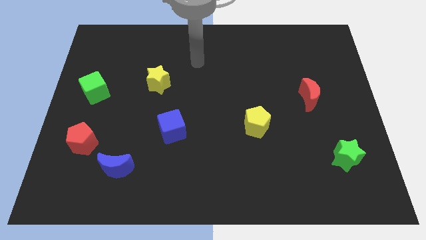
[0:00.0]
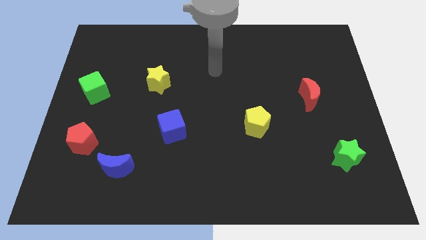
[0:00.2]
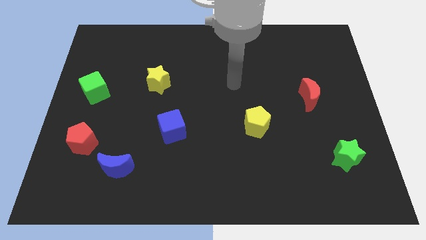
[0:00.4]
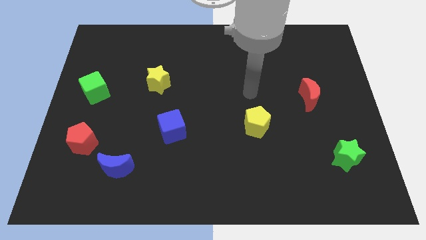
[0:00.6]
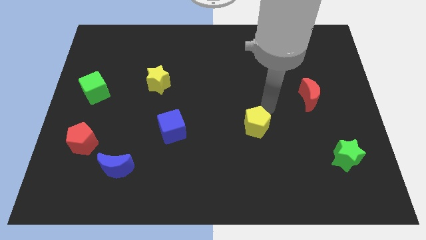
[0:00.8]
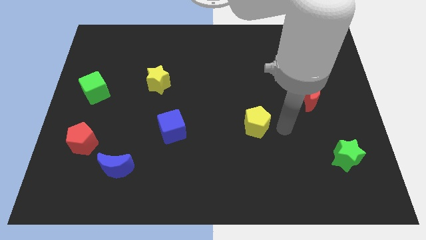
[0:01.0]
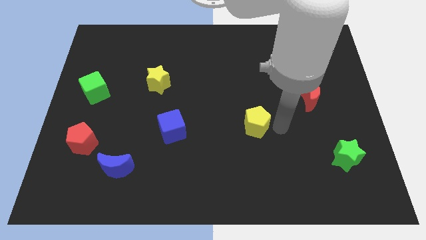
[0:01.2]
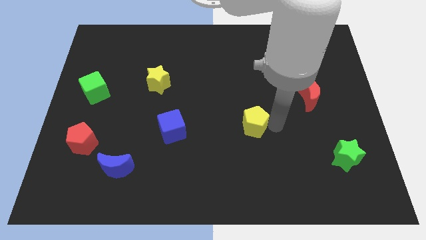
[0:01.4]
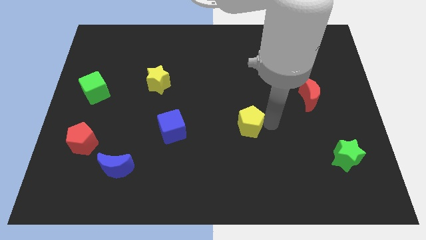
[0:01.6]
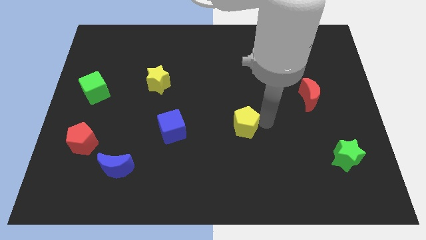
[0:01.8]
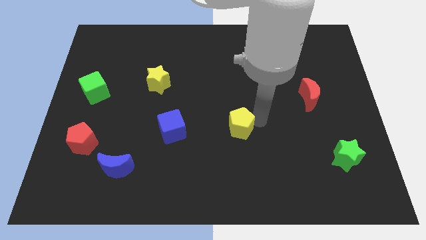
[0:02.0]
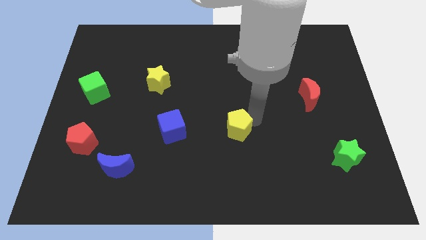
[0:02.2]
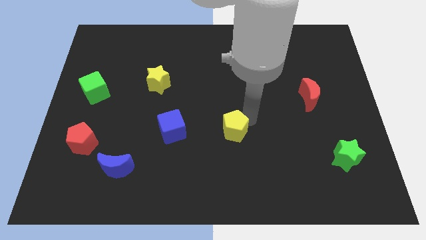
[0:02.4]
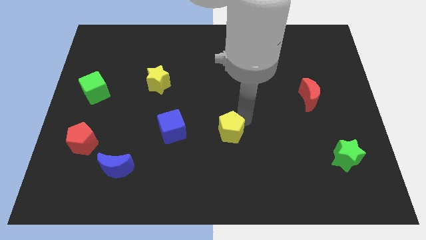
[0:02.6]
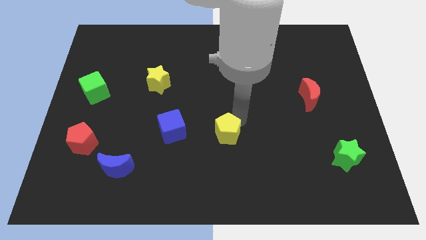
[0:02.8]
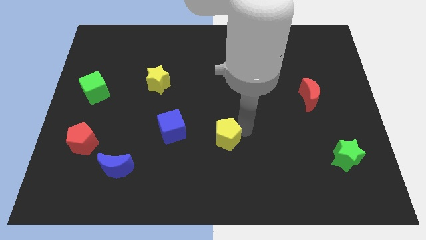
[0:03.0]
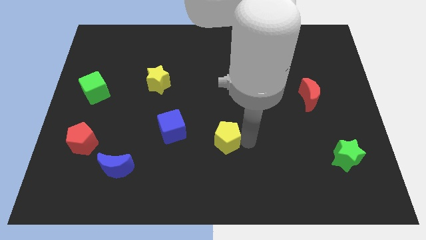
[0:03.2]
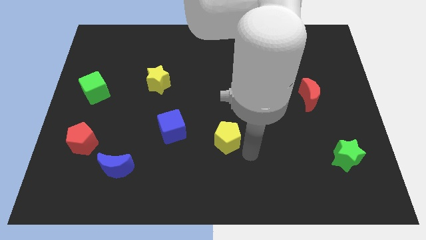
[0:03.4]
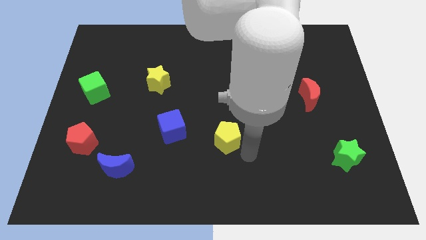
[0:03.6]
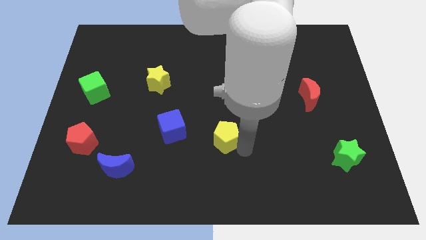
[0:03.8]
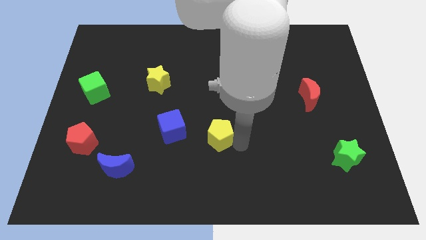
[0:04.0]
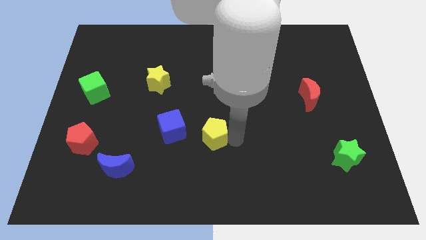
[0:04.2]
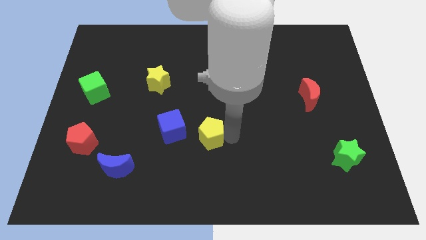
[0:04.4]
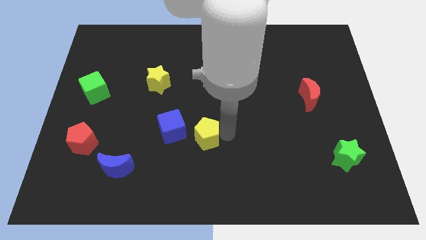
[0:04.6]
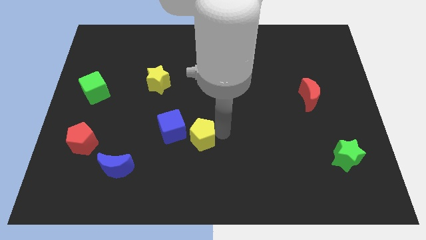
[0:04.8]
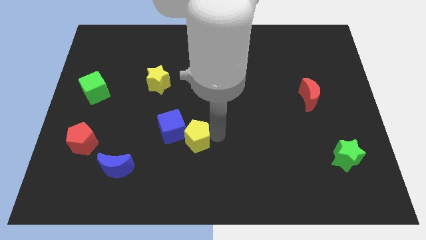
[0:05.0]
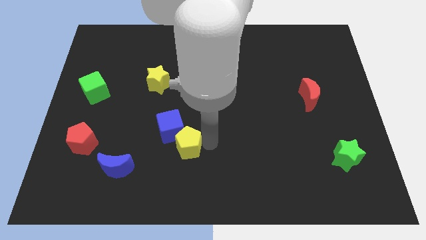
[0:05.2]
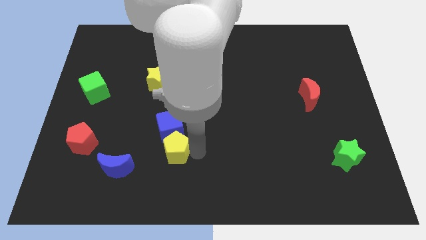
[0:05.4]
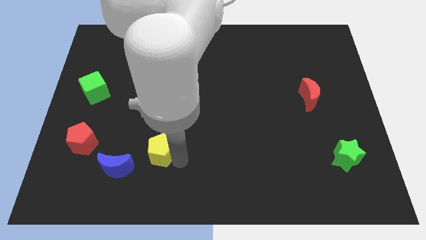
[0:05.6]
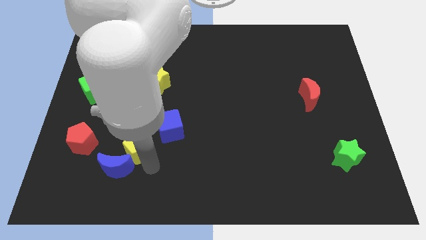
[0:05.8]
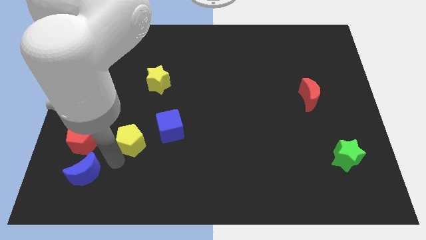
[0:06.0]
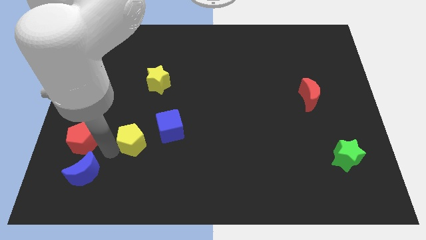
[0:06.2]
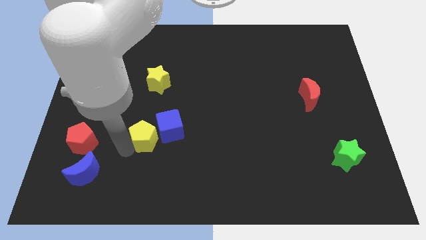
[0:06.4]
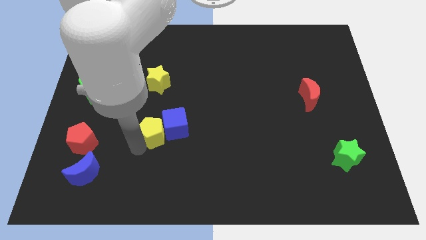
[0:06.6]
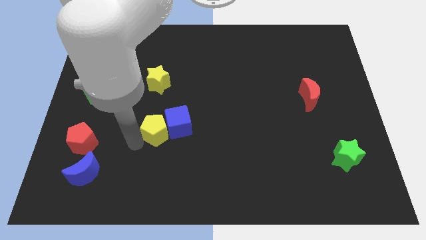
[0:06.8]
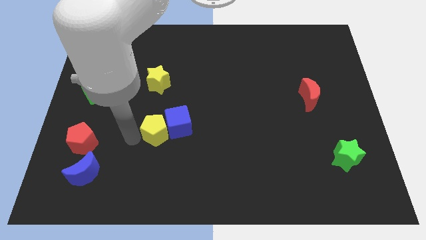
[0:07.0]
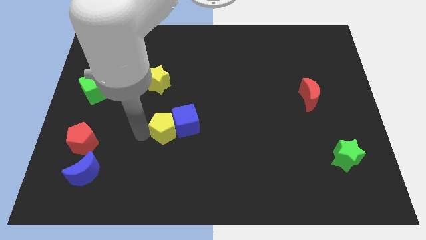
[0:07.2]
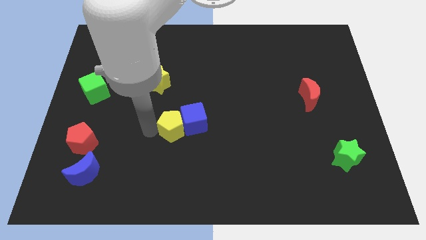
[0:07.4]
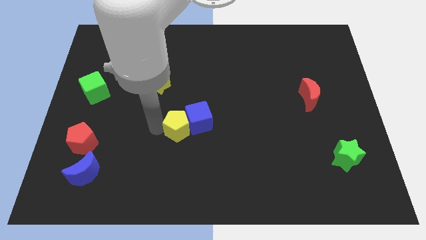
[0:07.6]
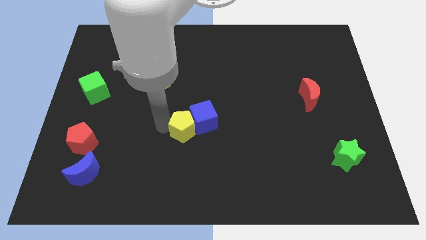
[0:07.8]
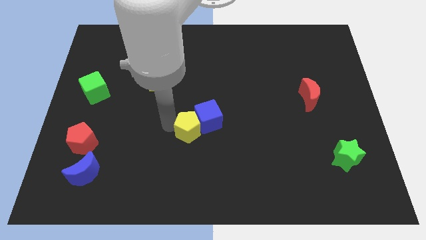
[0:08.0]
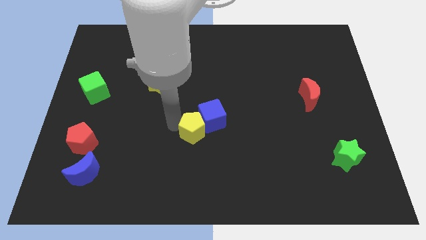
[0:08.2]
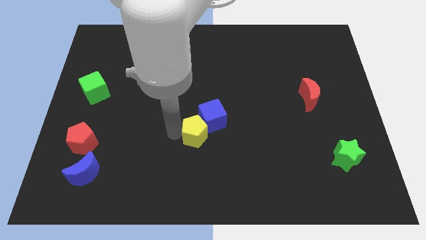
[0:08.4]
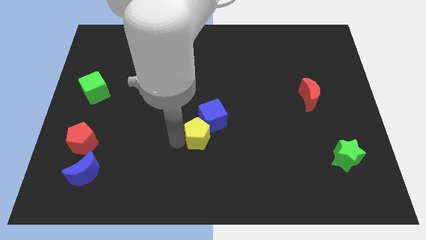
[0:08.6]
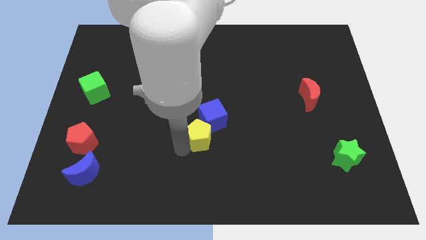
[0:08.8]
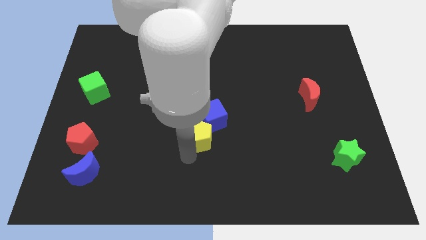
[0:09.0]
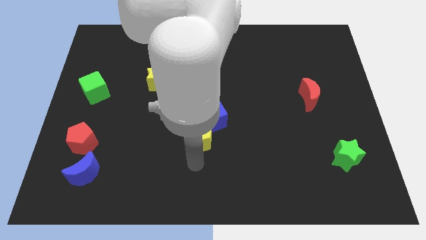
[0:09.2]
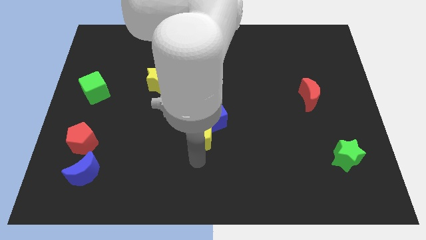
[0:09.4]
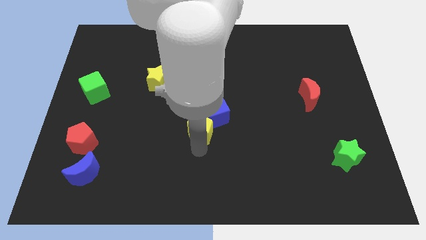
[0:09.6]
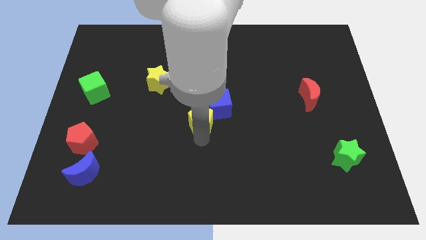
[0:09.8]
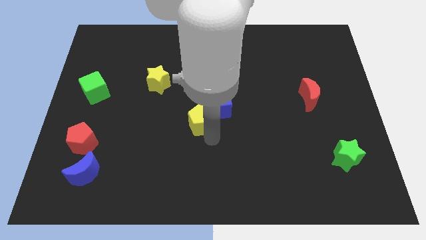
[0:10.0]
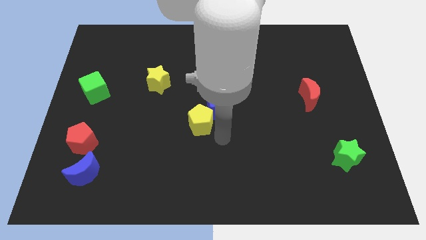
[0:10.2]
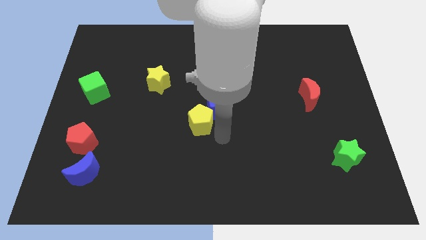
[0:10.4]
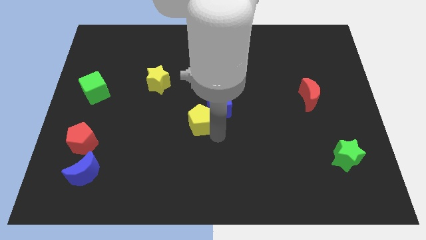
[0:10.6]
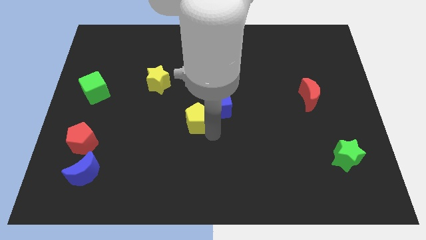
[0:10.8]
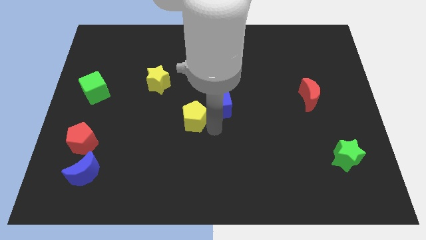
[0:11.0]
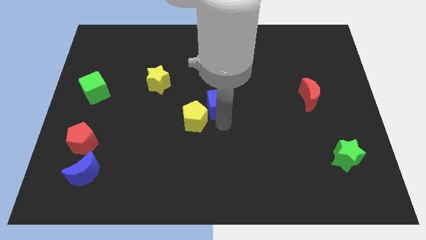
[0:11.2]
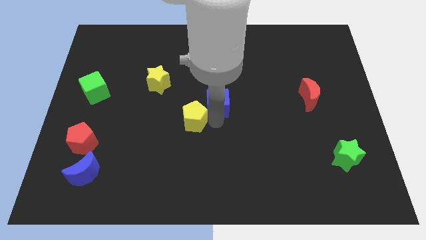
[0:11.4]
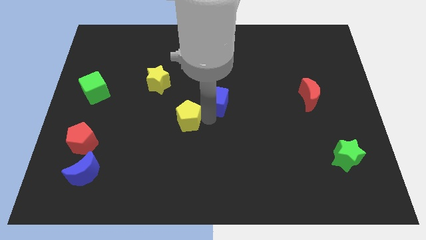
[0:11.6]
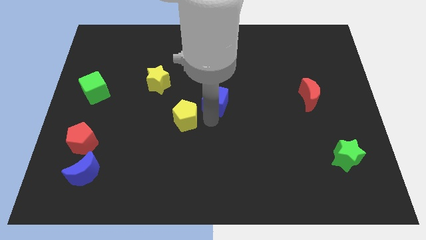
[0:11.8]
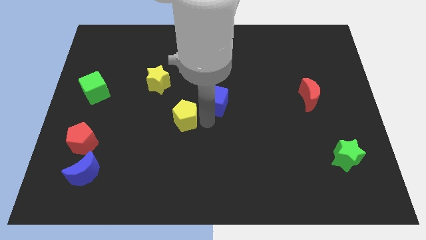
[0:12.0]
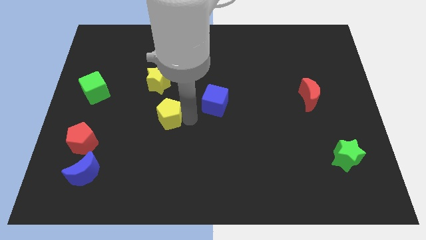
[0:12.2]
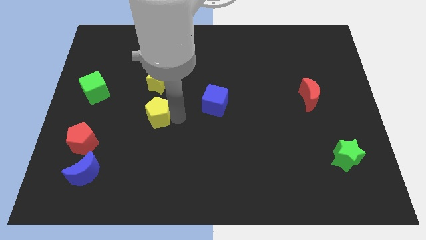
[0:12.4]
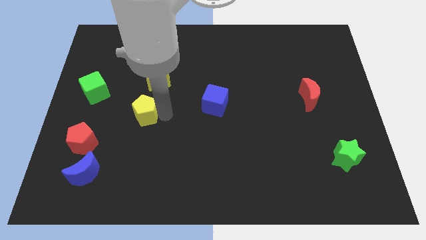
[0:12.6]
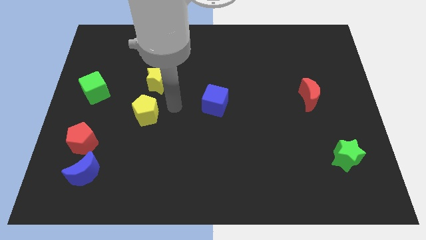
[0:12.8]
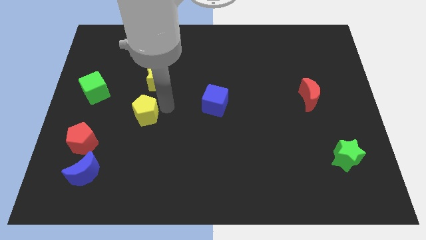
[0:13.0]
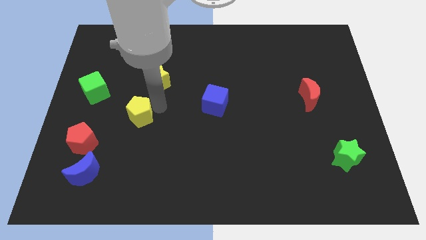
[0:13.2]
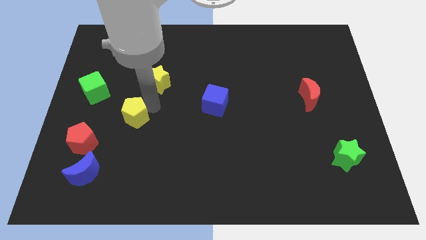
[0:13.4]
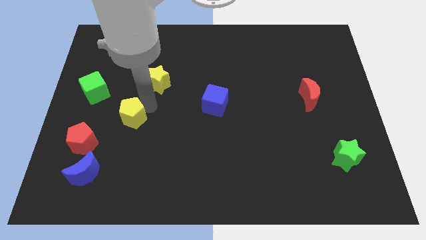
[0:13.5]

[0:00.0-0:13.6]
put the yellow pentagon diagonally up and to the right of the red pentagon
